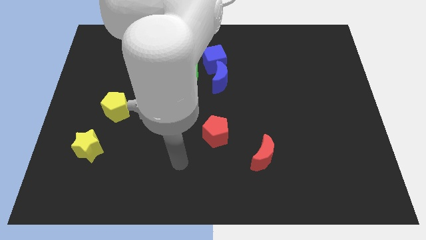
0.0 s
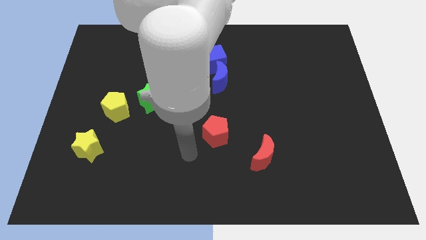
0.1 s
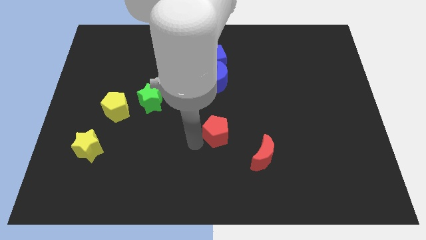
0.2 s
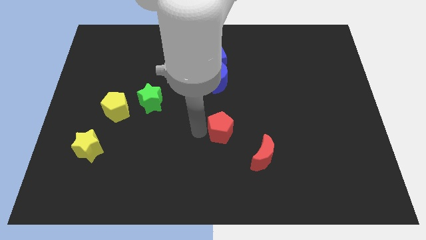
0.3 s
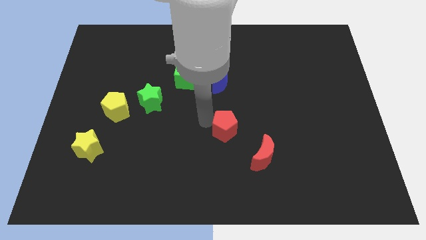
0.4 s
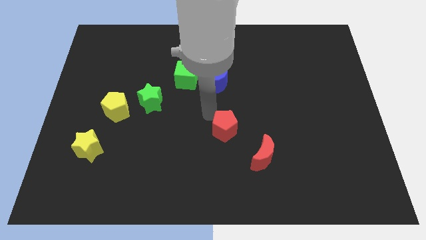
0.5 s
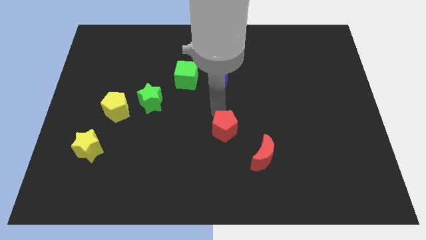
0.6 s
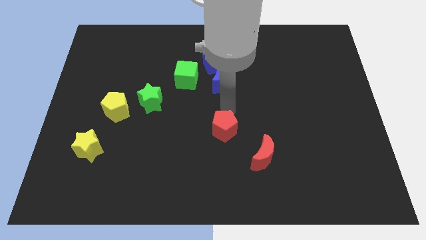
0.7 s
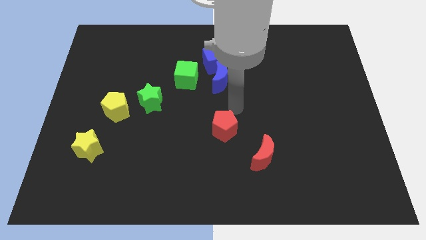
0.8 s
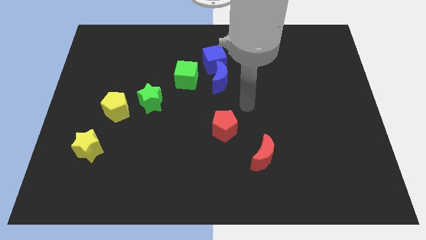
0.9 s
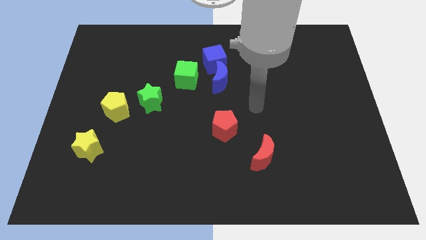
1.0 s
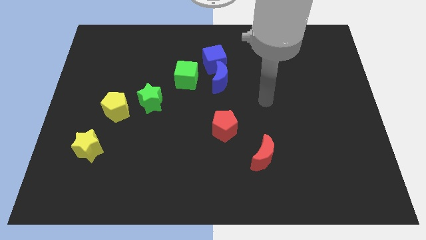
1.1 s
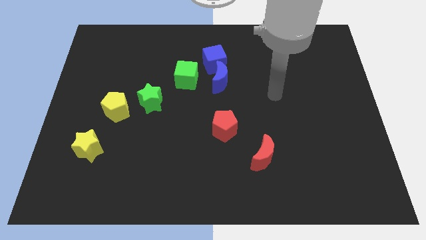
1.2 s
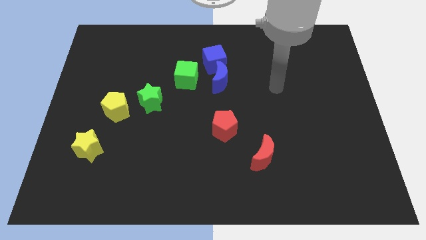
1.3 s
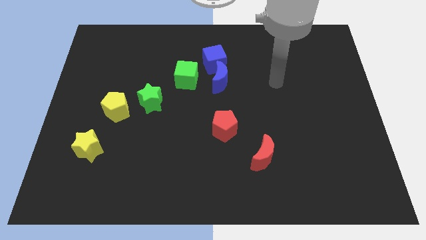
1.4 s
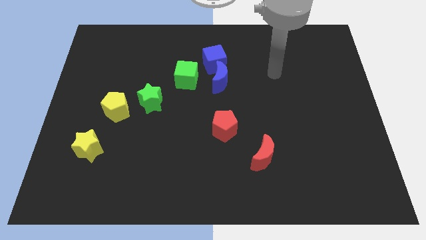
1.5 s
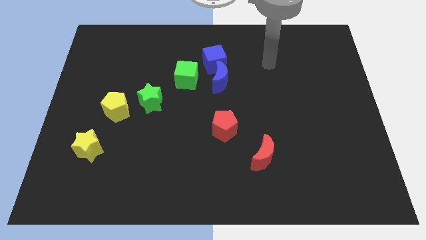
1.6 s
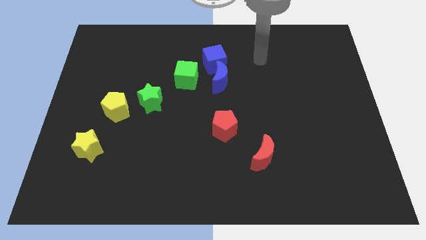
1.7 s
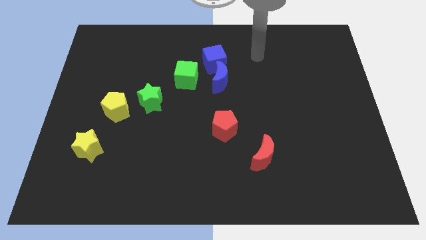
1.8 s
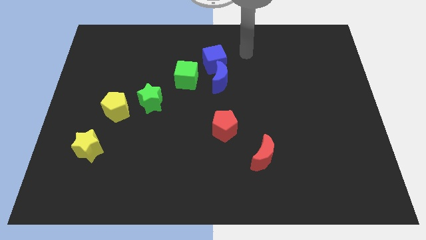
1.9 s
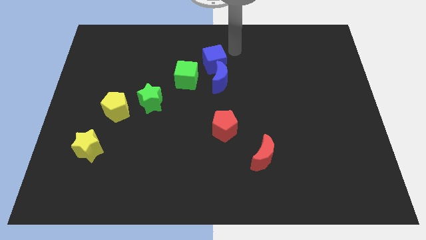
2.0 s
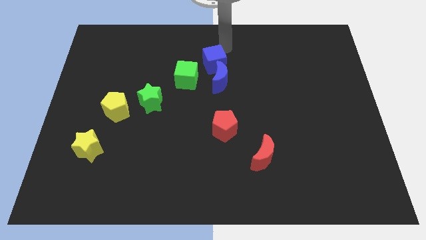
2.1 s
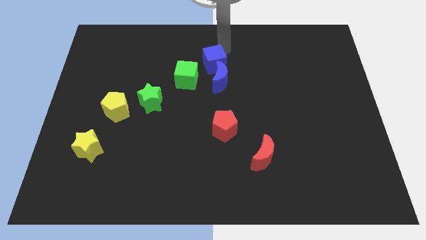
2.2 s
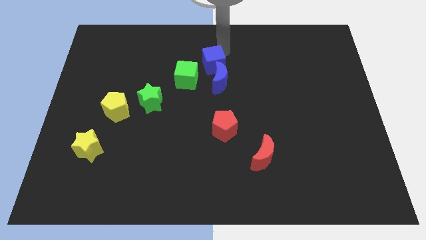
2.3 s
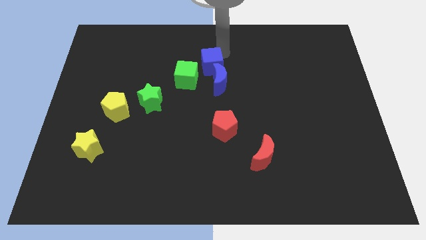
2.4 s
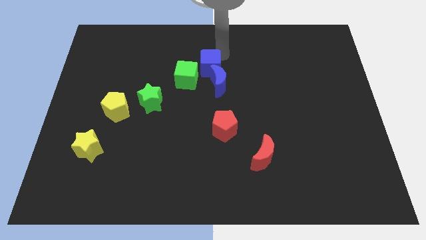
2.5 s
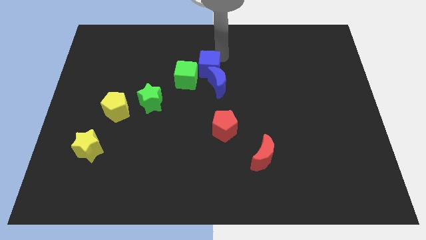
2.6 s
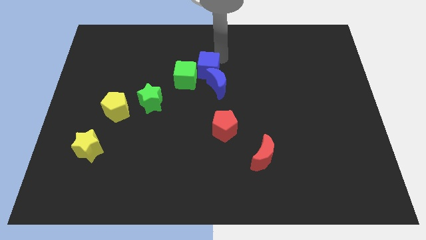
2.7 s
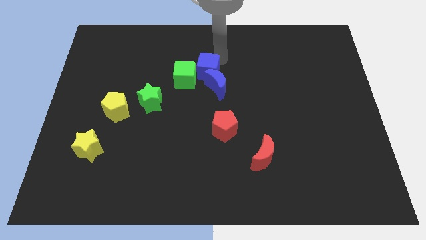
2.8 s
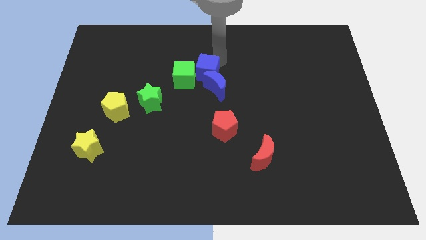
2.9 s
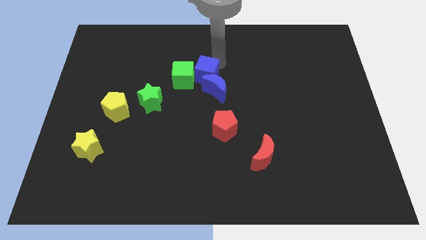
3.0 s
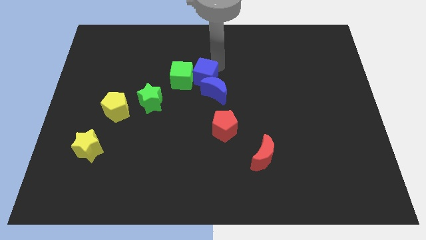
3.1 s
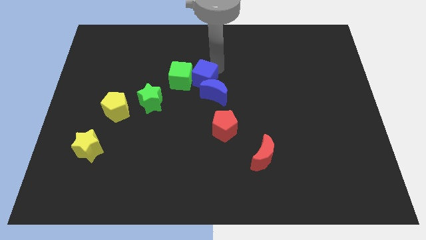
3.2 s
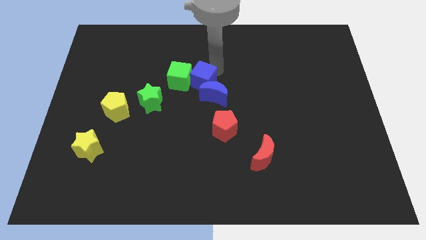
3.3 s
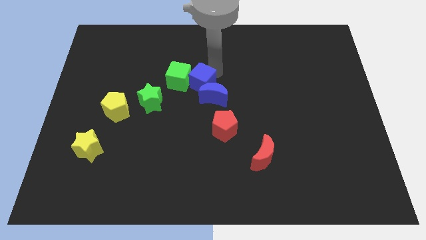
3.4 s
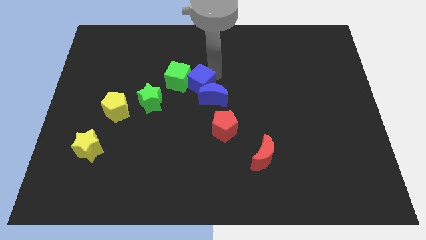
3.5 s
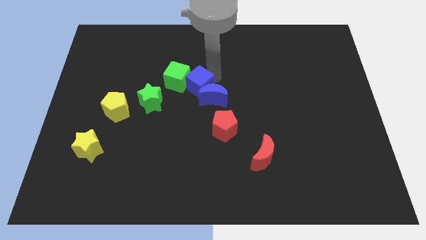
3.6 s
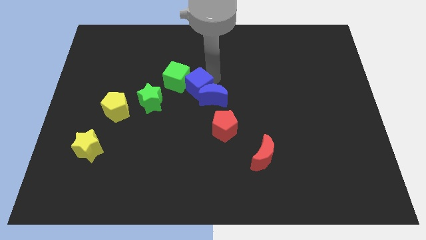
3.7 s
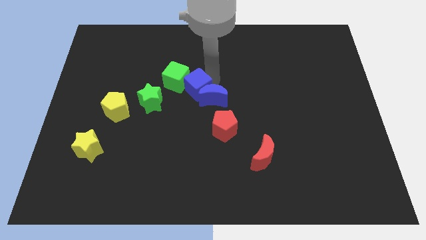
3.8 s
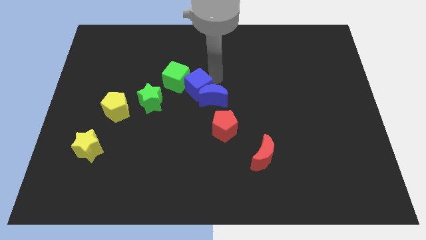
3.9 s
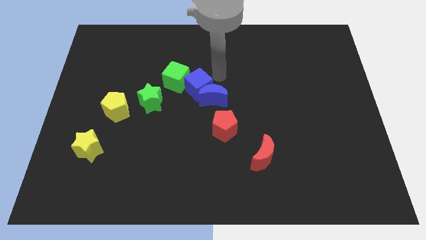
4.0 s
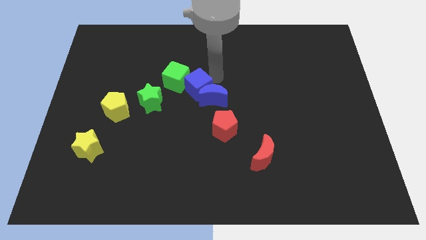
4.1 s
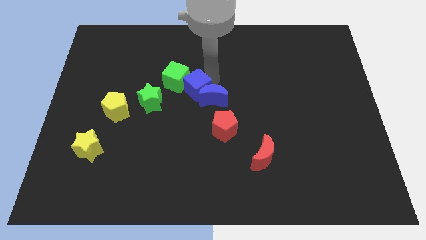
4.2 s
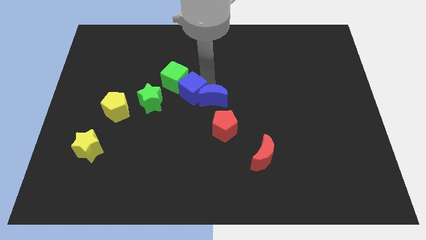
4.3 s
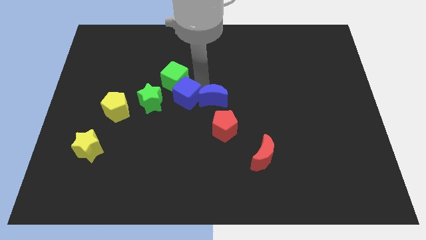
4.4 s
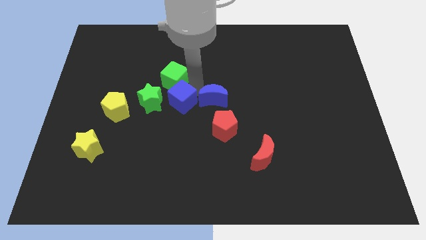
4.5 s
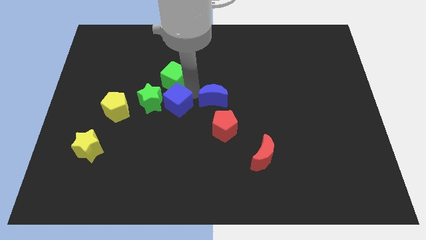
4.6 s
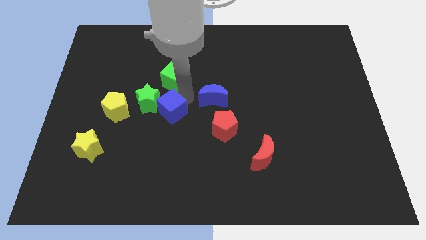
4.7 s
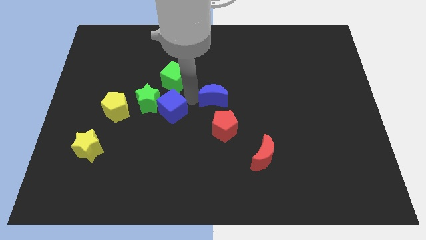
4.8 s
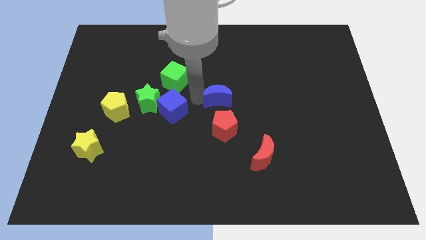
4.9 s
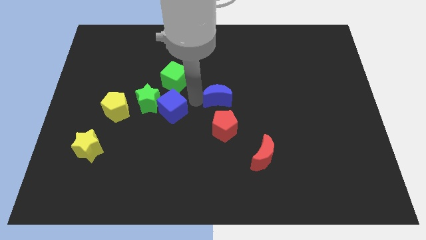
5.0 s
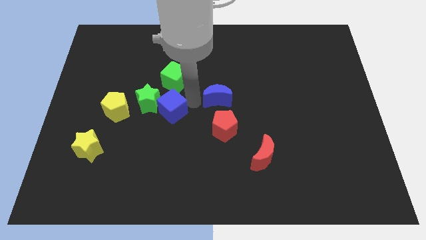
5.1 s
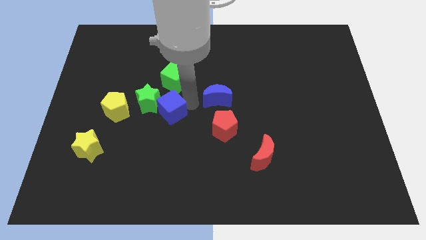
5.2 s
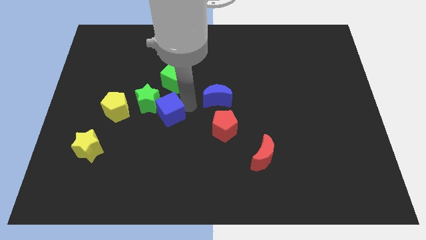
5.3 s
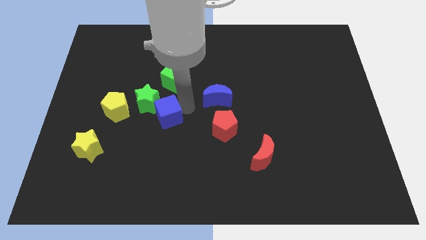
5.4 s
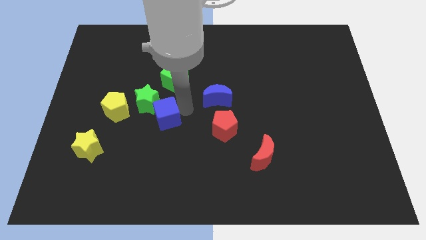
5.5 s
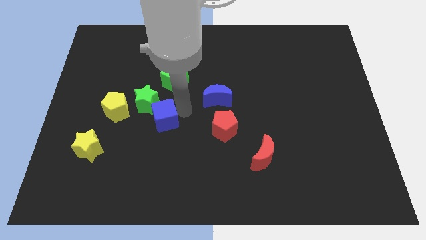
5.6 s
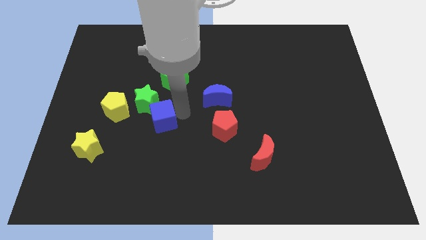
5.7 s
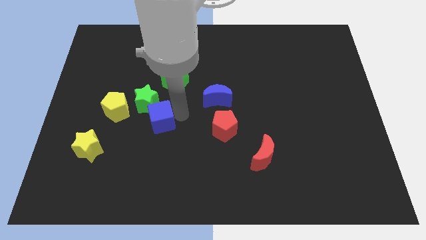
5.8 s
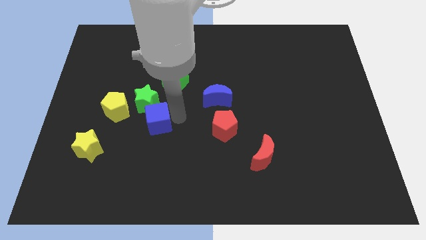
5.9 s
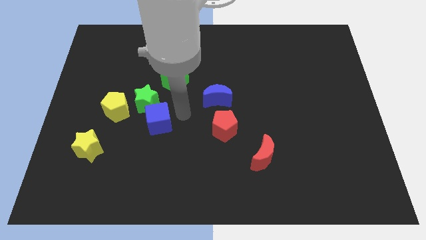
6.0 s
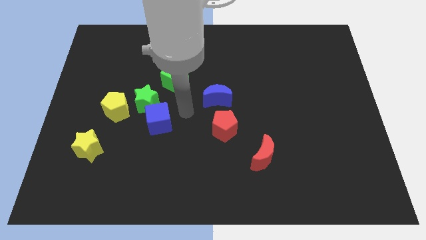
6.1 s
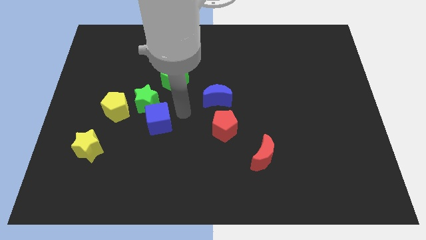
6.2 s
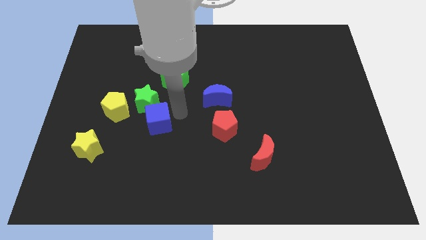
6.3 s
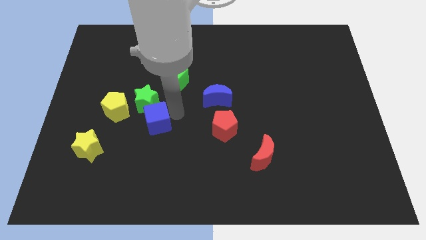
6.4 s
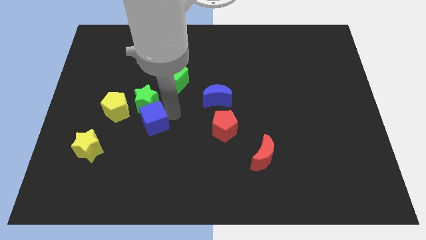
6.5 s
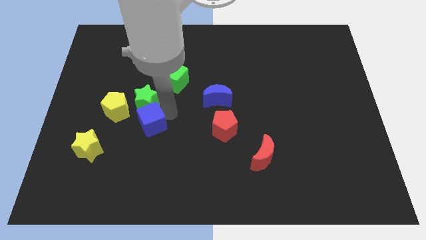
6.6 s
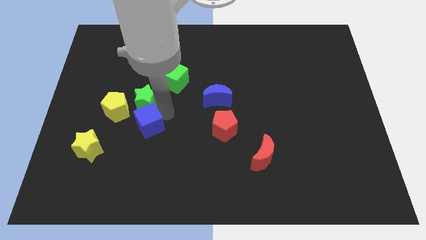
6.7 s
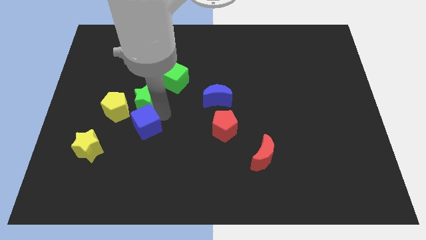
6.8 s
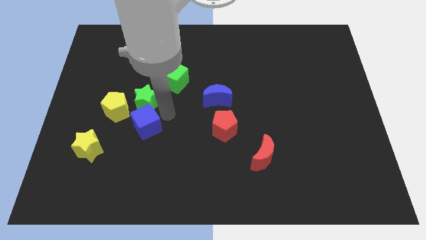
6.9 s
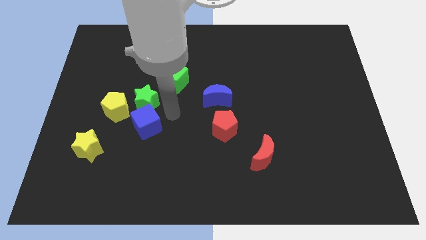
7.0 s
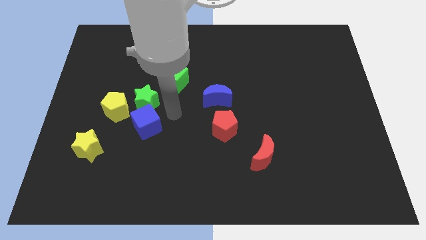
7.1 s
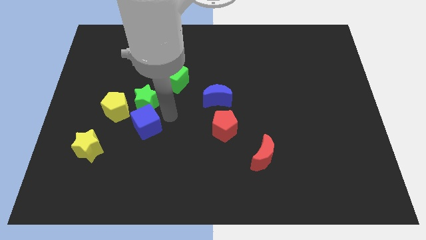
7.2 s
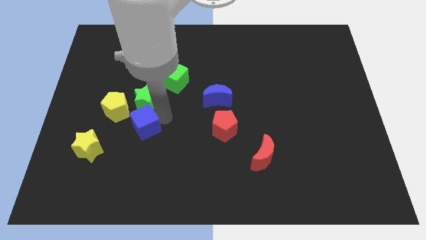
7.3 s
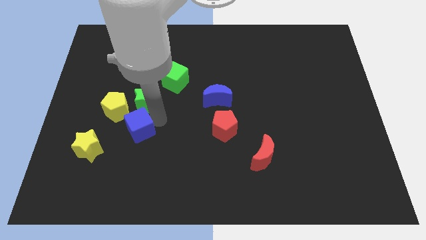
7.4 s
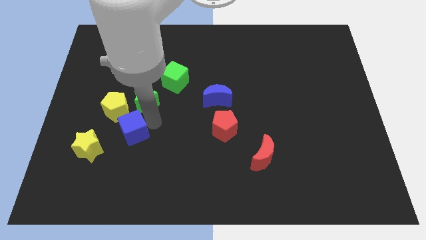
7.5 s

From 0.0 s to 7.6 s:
slide the blue cube to the bottom side of the yellow pentagon

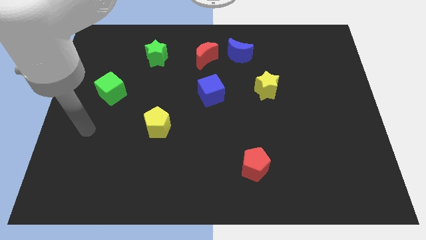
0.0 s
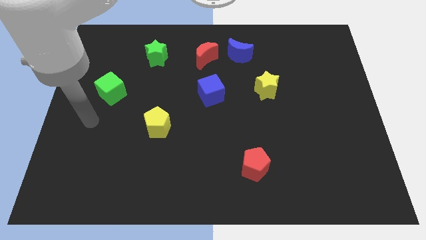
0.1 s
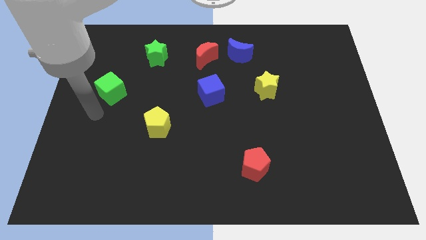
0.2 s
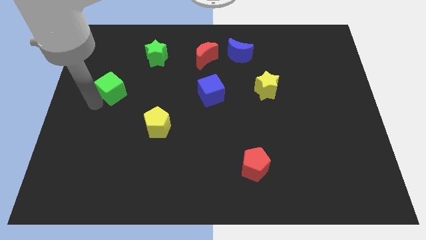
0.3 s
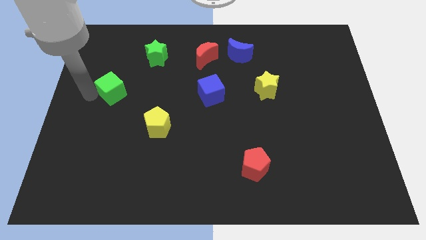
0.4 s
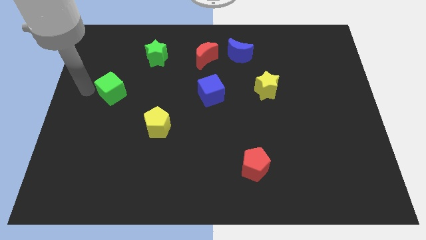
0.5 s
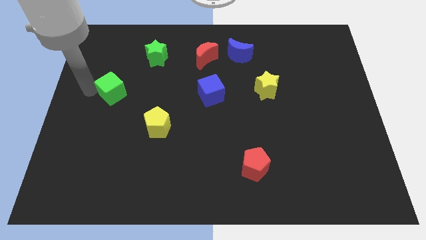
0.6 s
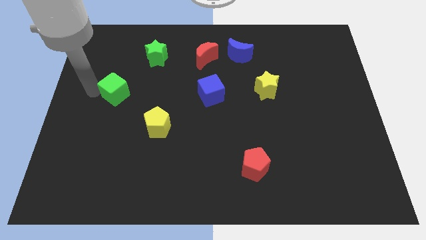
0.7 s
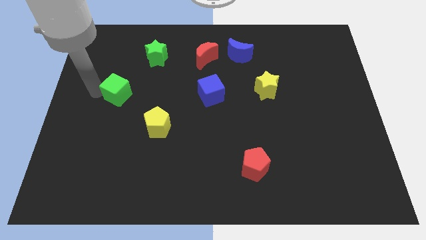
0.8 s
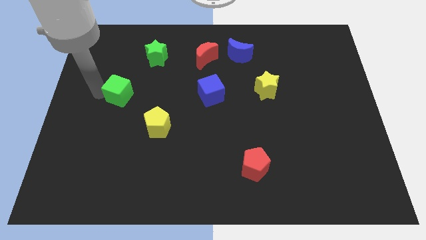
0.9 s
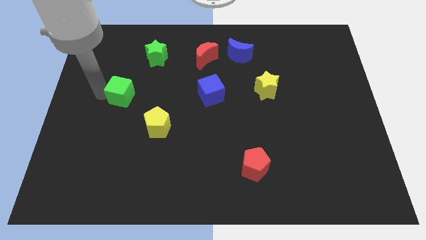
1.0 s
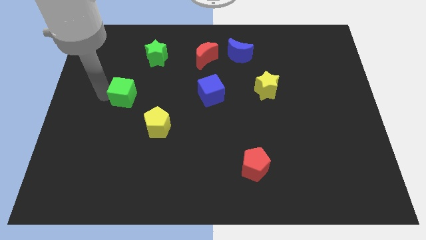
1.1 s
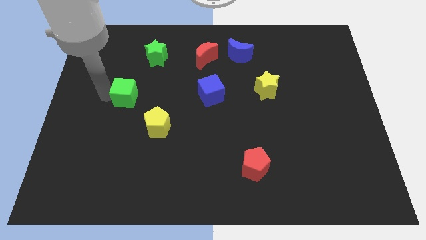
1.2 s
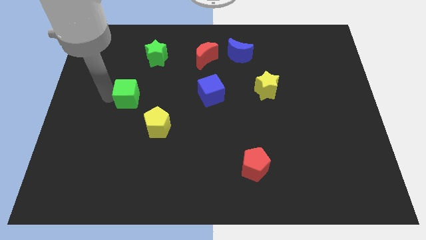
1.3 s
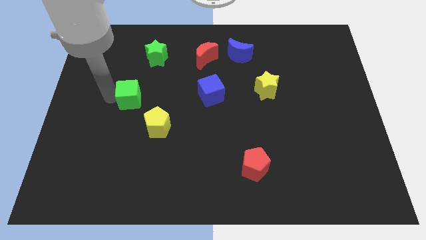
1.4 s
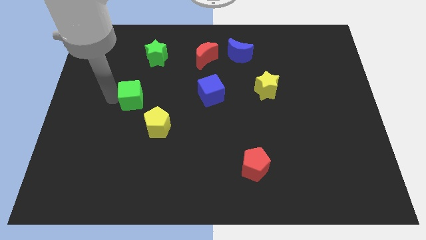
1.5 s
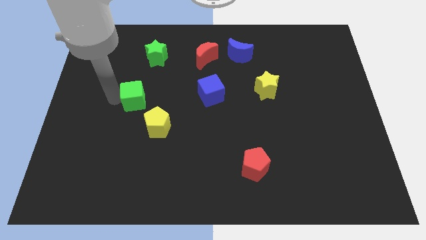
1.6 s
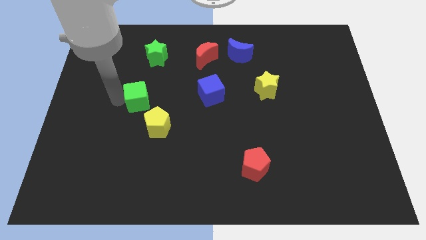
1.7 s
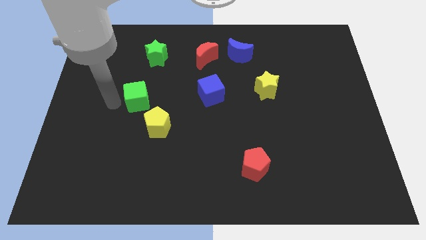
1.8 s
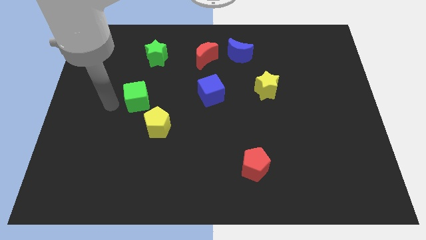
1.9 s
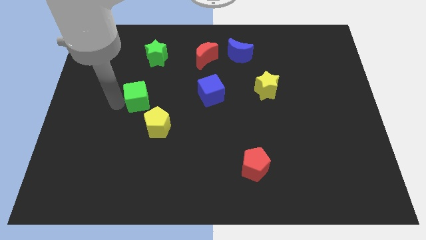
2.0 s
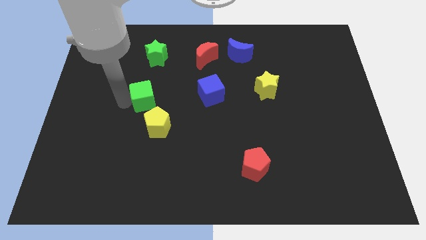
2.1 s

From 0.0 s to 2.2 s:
move the green cube just left of the blue cube
